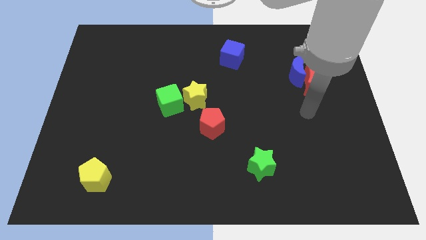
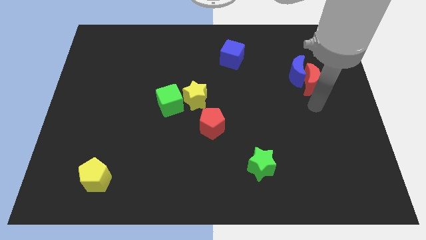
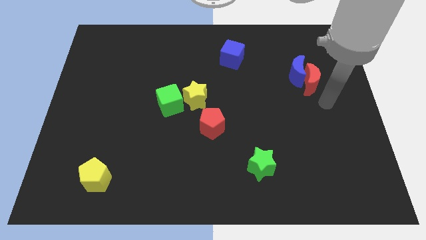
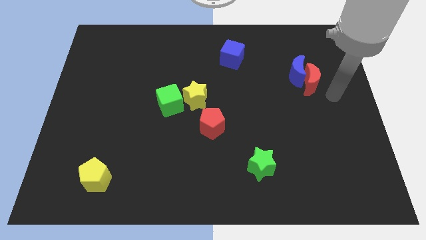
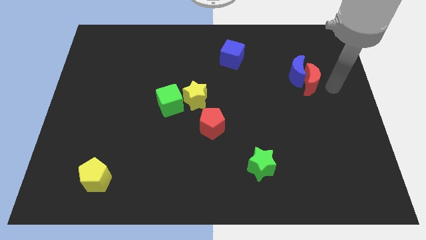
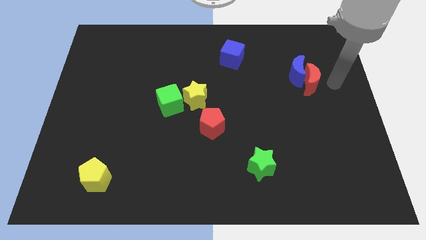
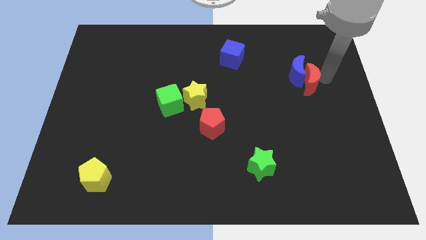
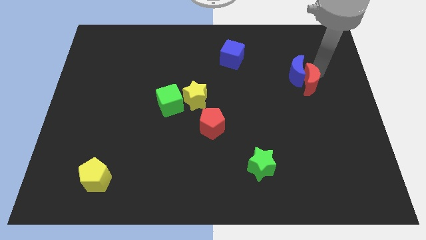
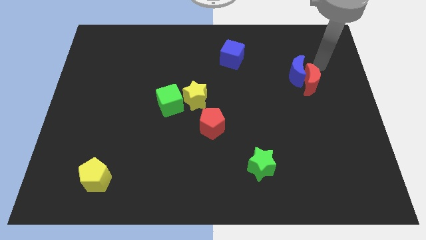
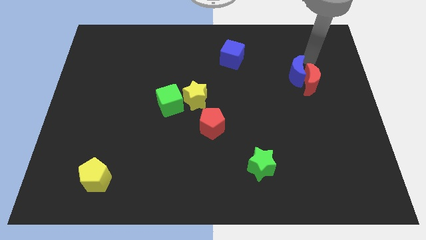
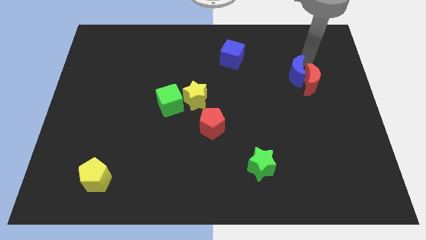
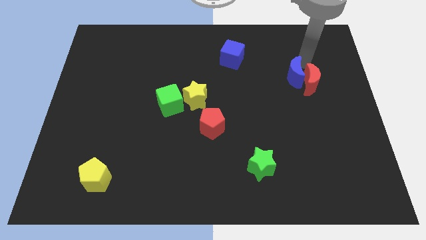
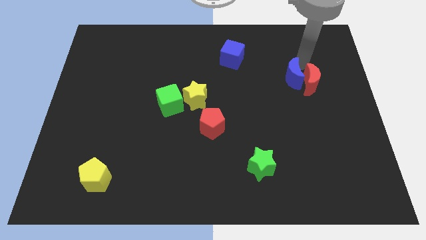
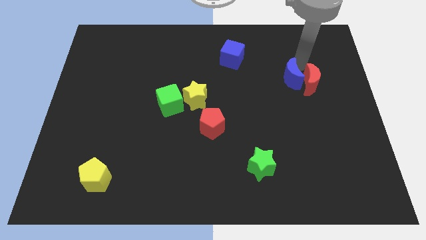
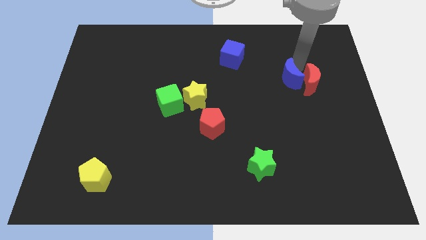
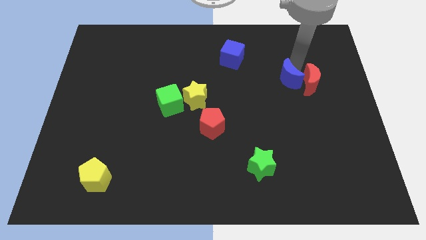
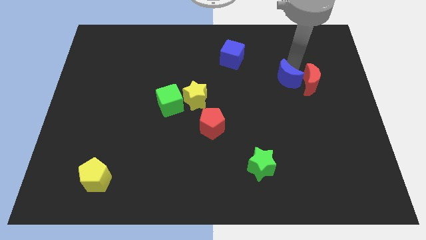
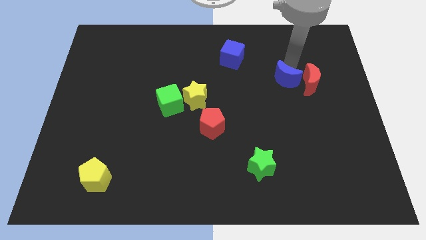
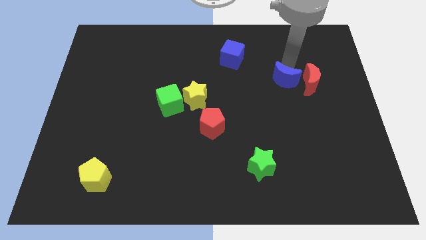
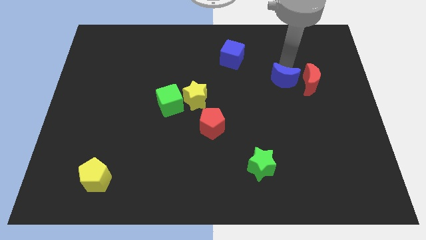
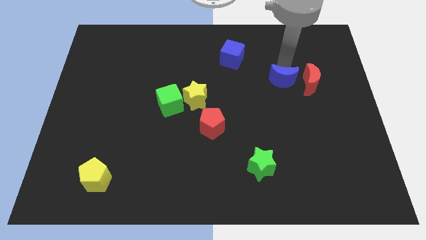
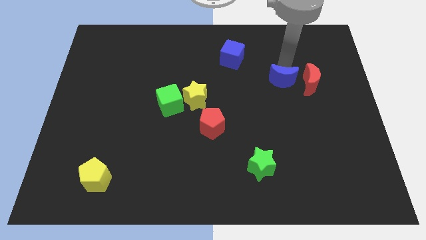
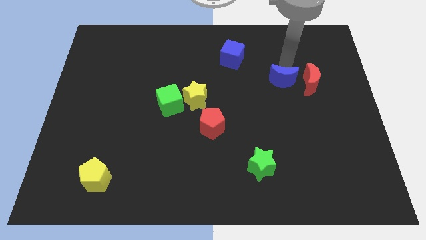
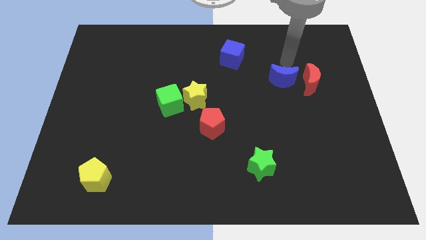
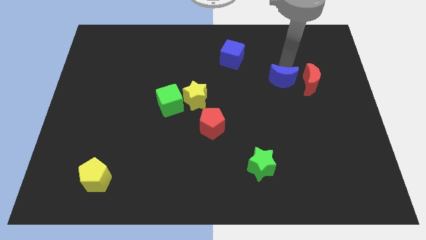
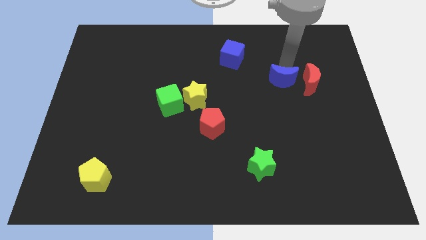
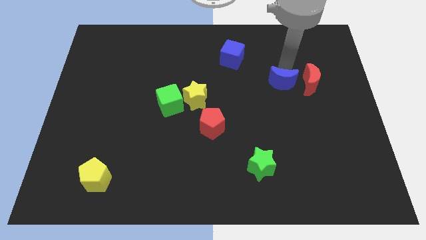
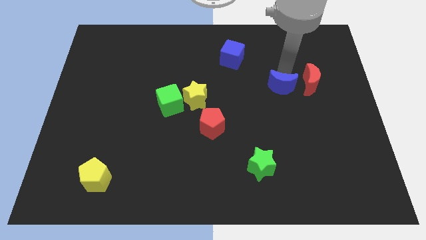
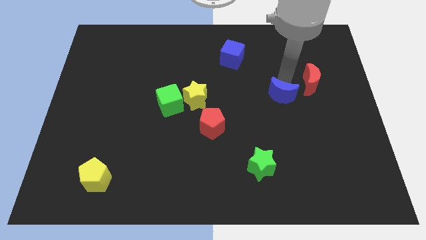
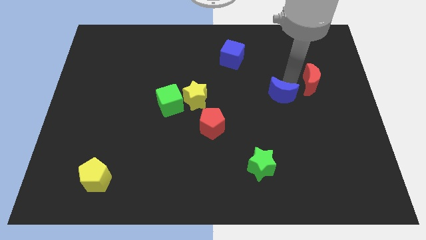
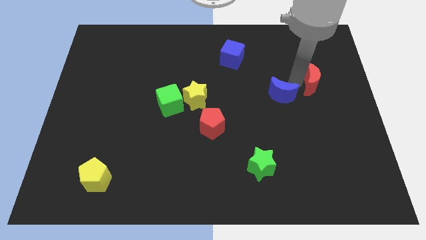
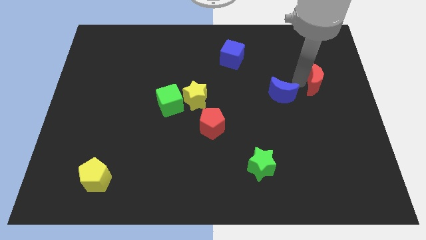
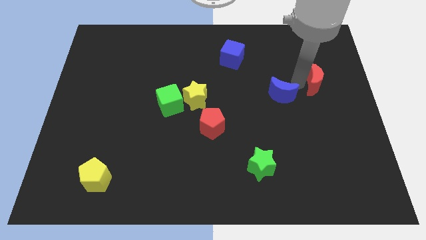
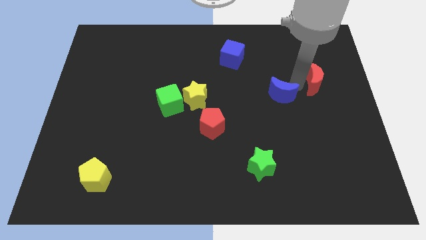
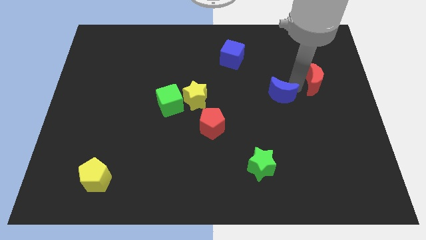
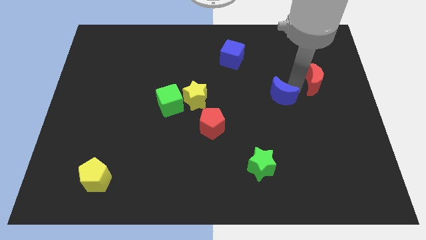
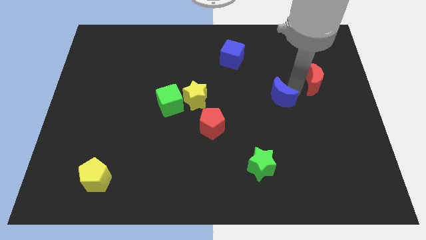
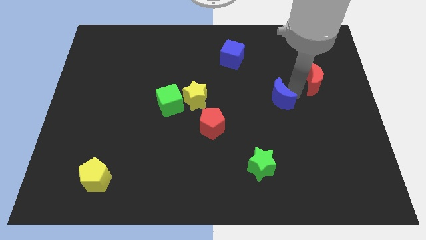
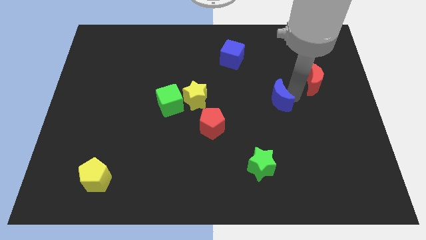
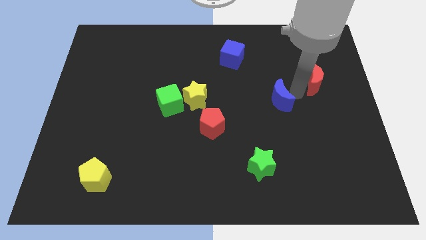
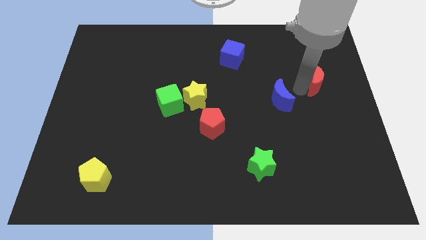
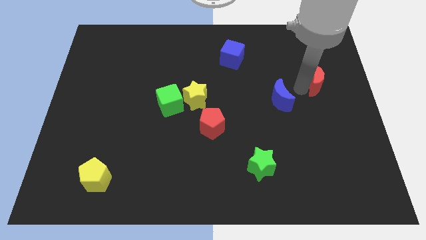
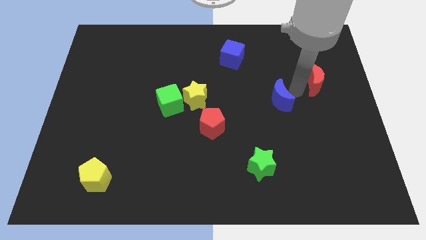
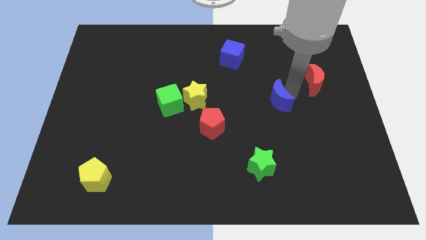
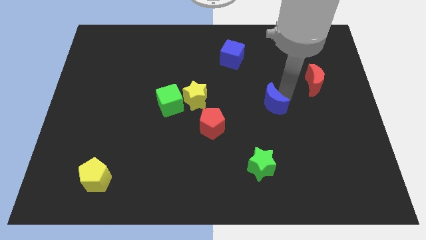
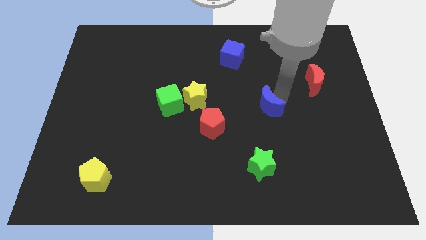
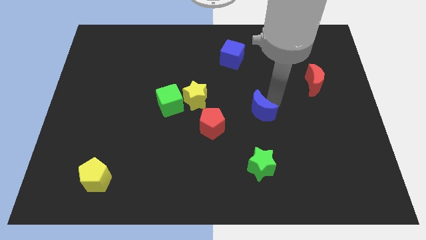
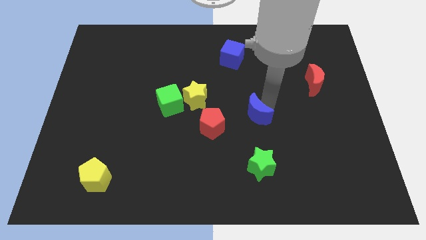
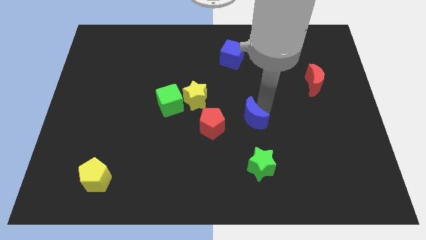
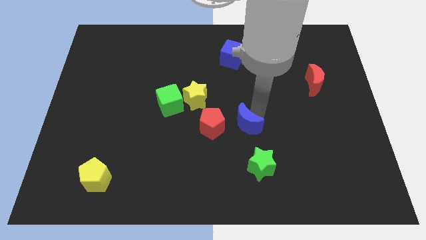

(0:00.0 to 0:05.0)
move the blue moon downwards and then to the left

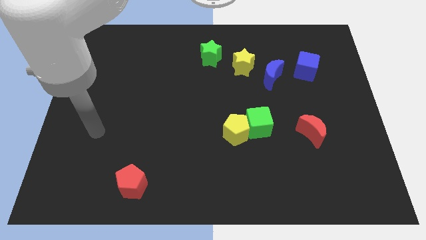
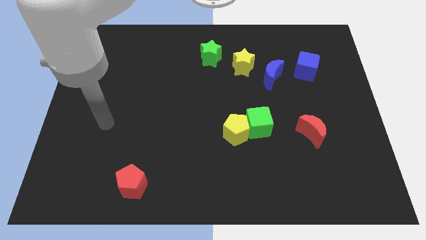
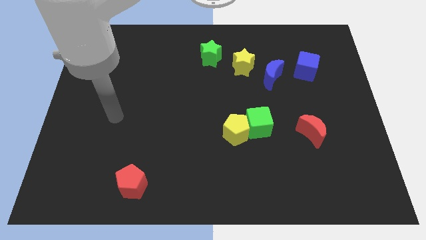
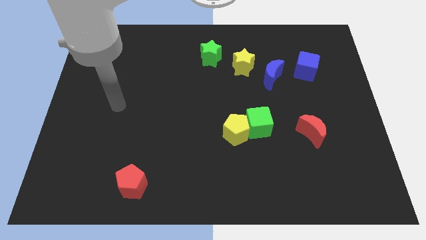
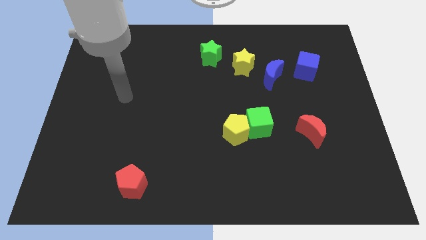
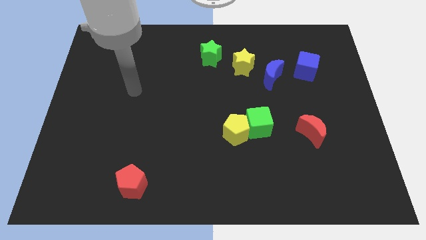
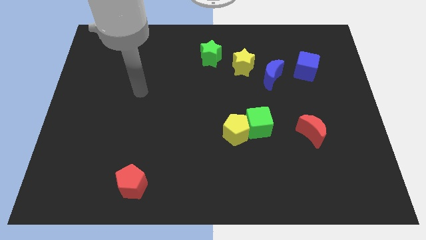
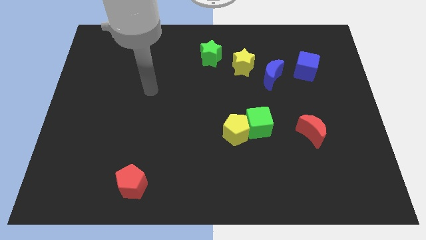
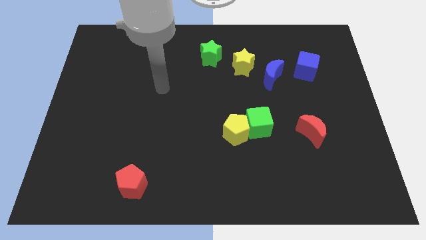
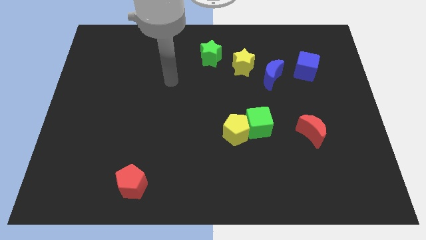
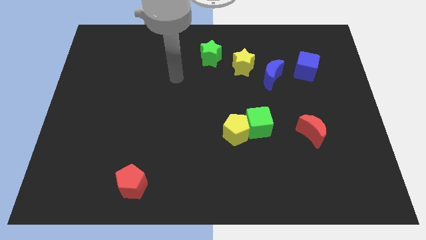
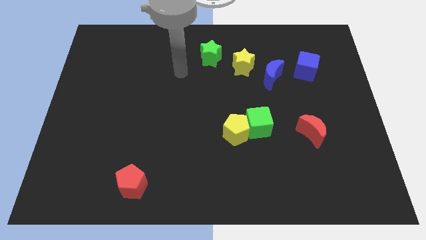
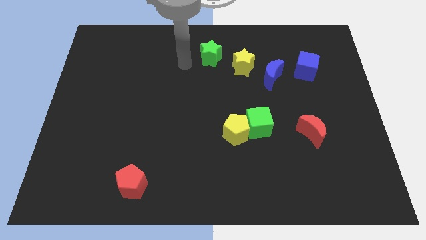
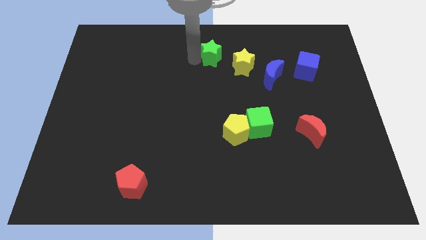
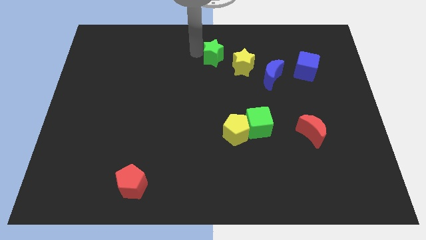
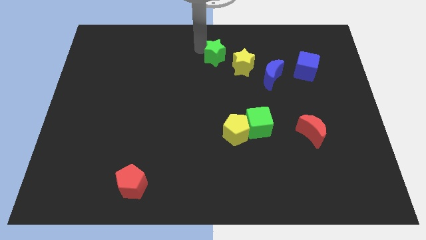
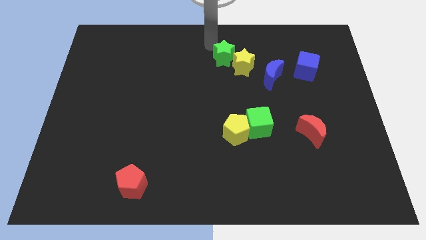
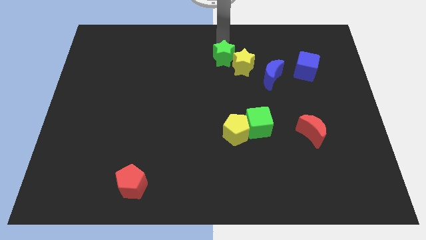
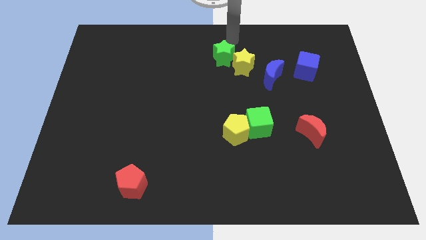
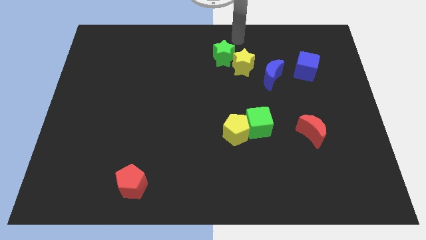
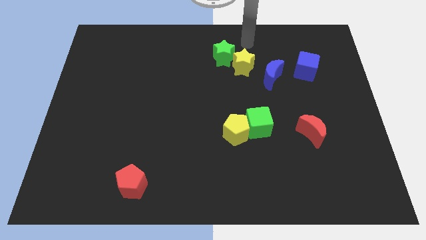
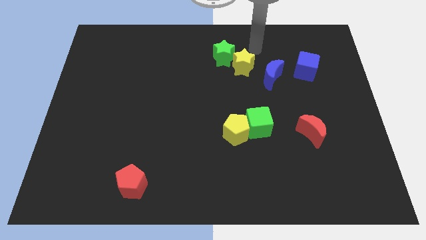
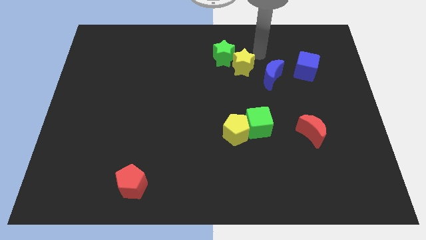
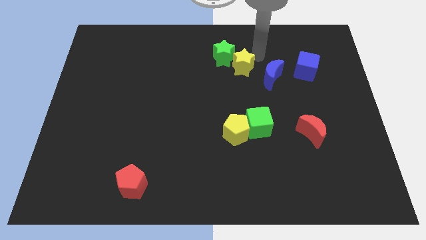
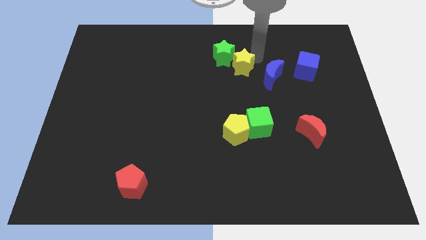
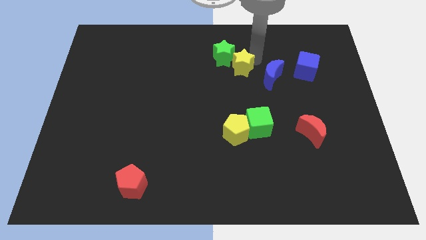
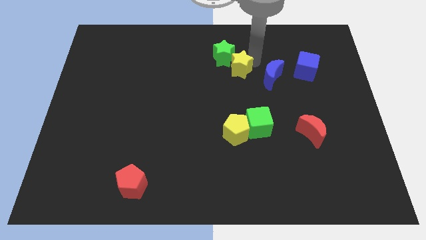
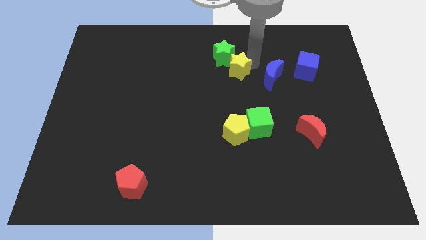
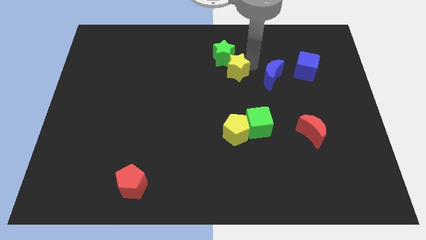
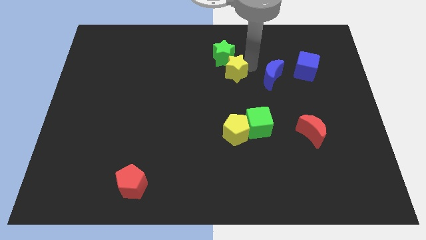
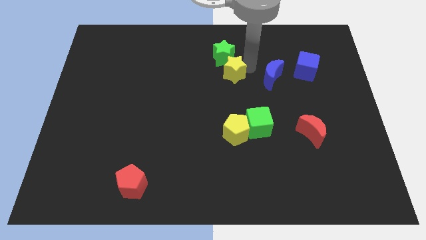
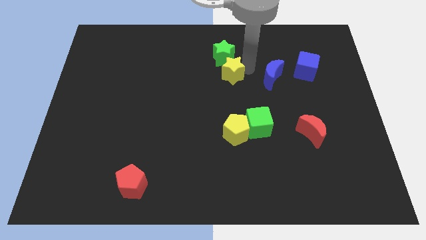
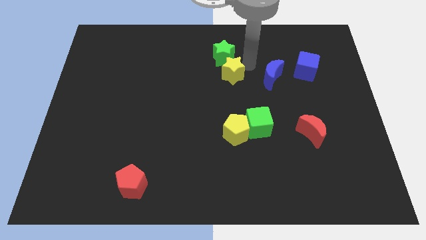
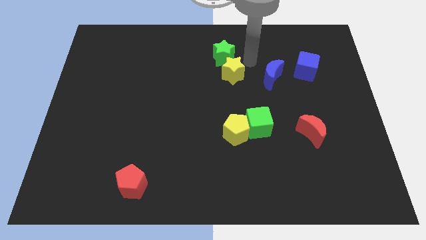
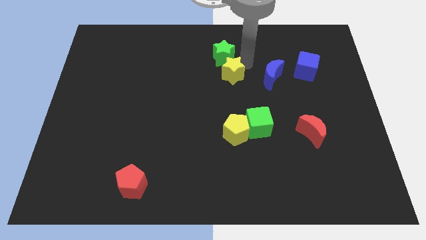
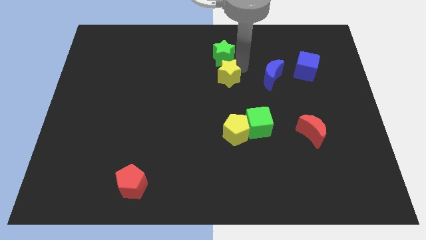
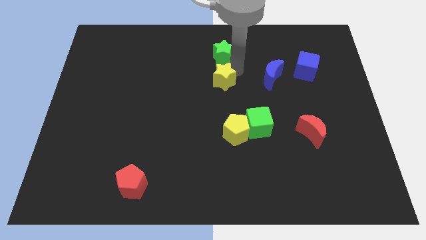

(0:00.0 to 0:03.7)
move the yellow star diagonally downwards and to the left a little bit
